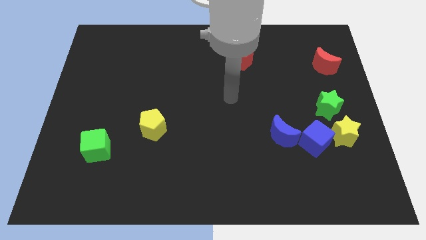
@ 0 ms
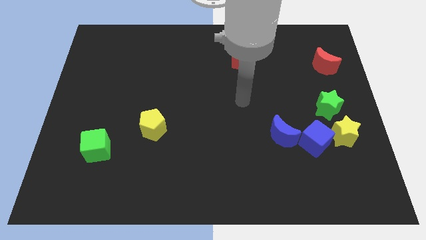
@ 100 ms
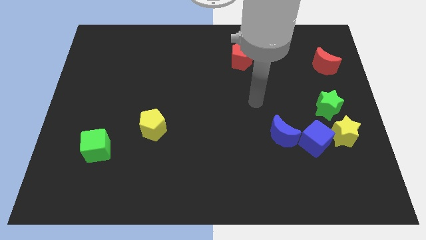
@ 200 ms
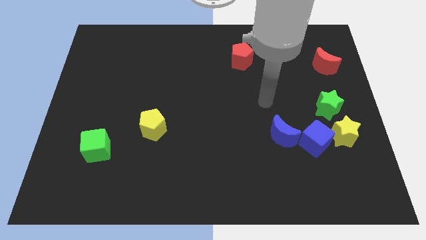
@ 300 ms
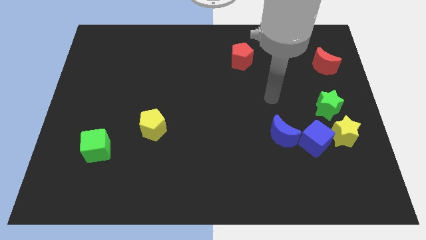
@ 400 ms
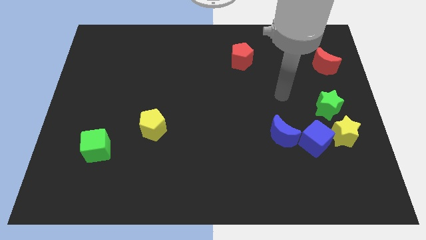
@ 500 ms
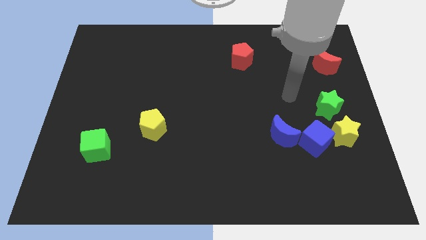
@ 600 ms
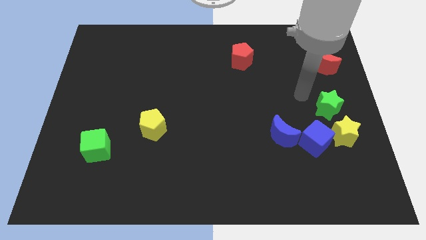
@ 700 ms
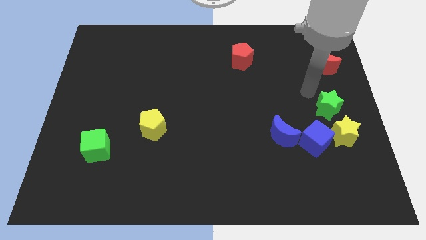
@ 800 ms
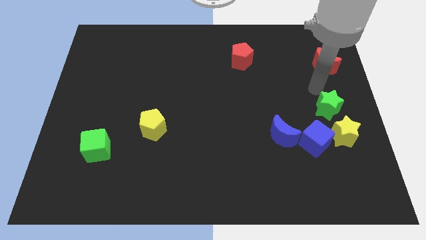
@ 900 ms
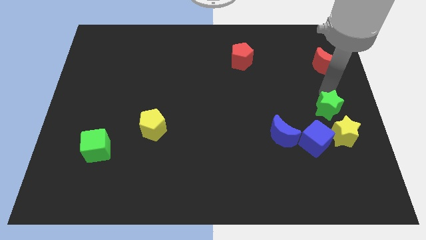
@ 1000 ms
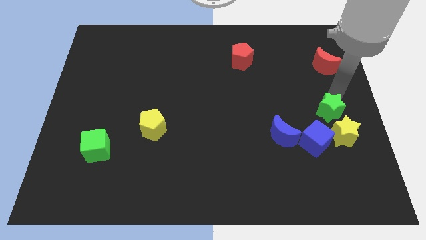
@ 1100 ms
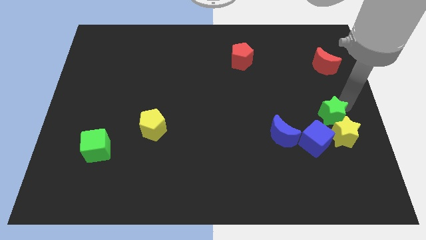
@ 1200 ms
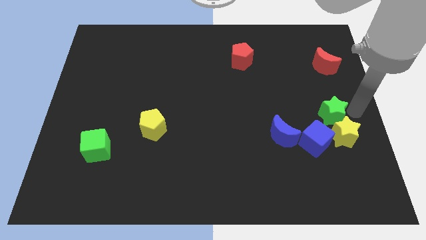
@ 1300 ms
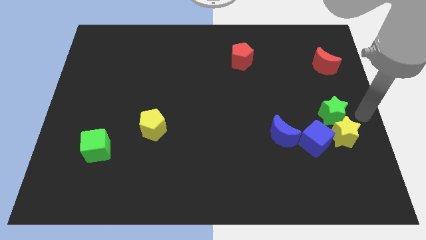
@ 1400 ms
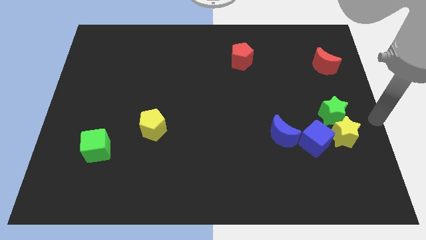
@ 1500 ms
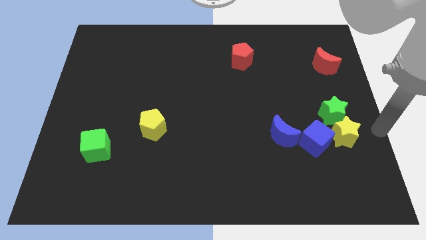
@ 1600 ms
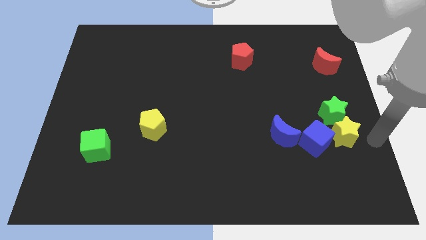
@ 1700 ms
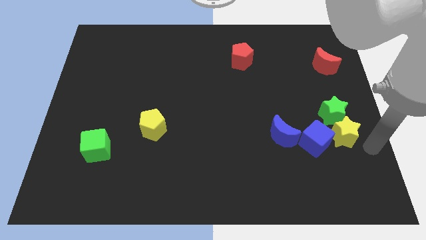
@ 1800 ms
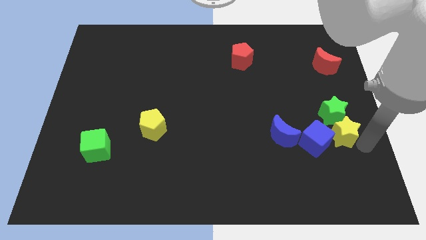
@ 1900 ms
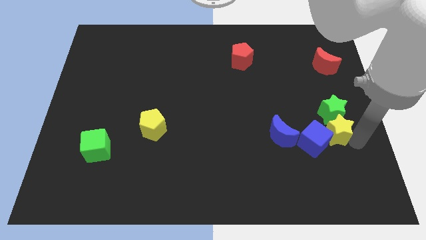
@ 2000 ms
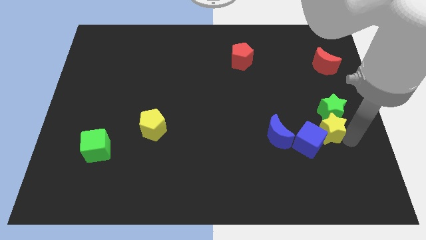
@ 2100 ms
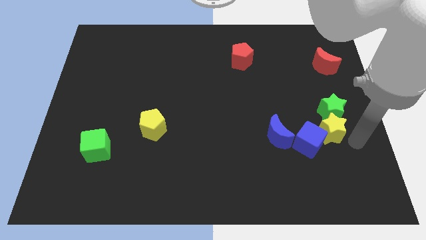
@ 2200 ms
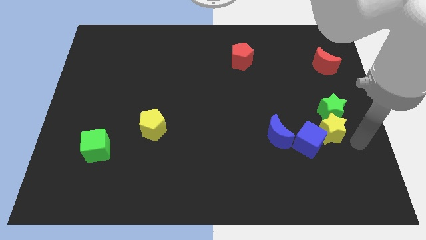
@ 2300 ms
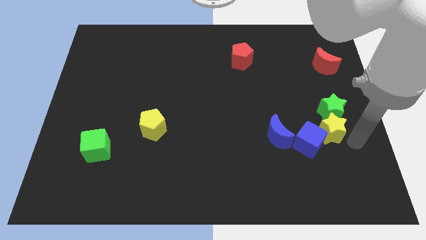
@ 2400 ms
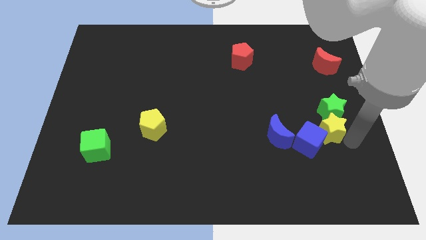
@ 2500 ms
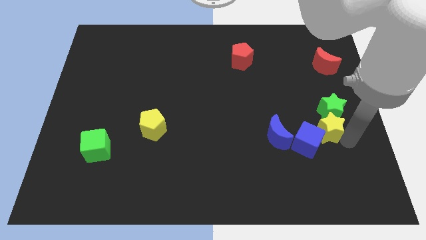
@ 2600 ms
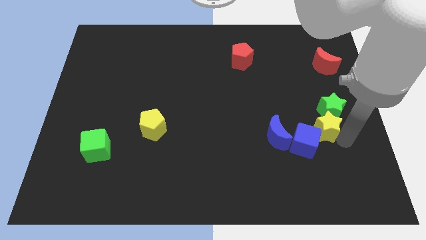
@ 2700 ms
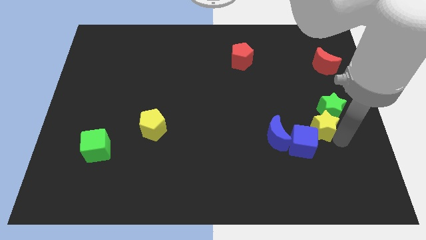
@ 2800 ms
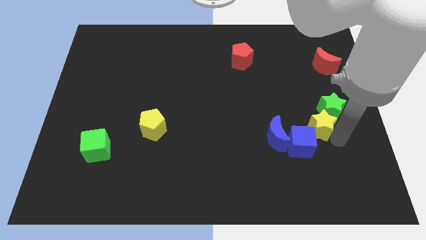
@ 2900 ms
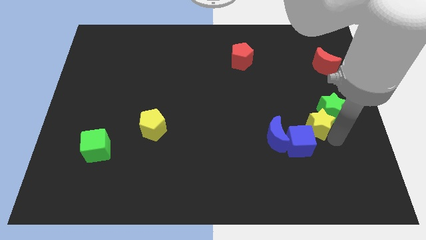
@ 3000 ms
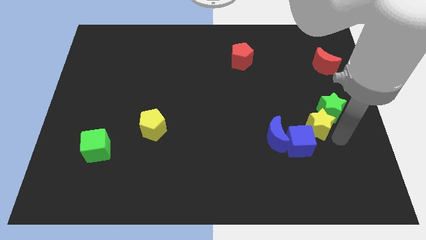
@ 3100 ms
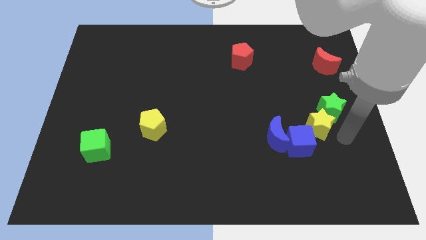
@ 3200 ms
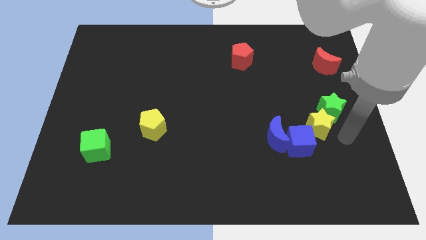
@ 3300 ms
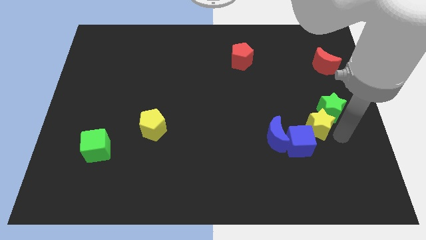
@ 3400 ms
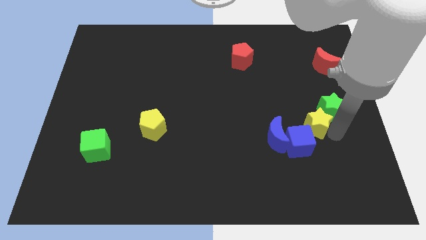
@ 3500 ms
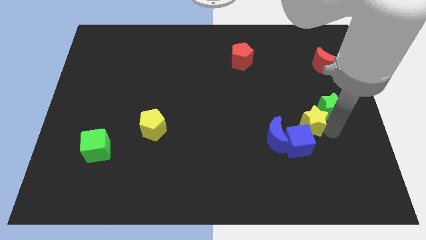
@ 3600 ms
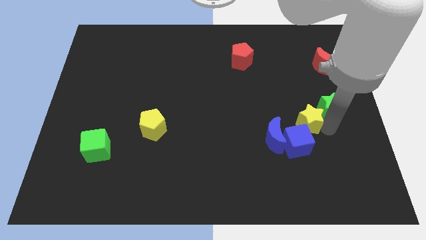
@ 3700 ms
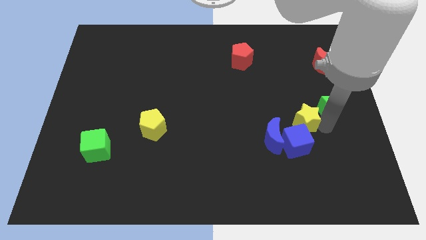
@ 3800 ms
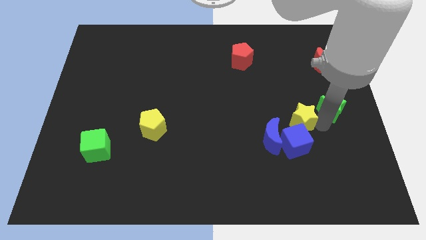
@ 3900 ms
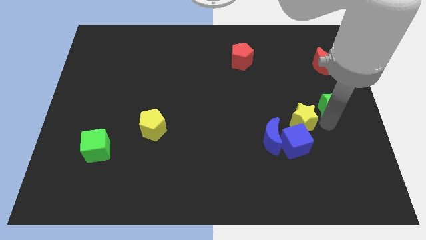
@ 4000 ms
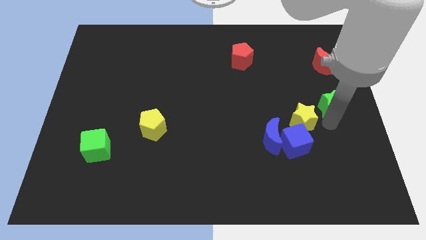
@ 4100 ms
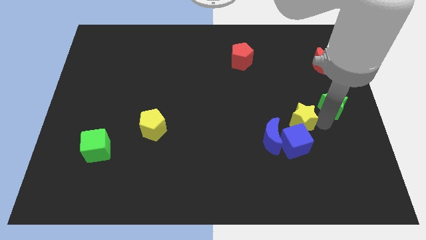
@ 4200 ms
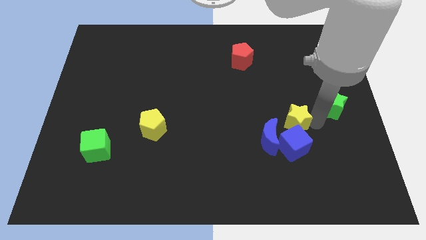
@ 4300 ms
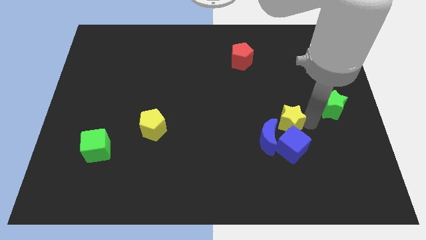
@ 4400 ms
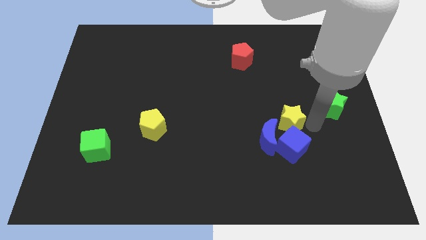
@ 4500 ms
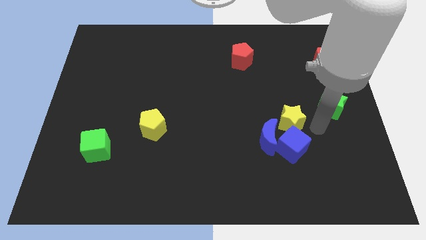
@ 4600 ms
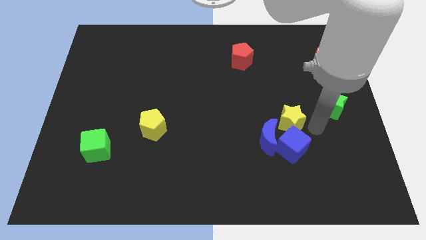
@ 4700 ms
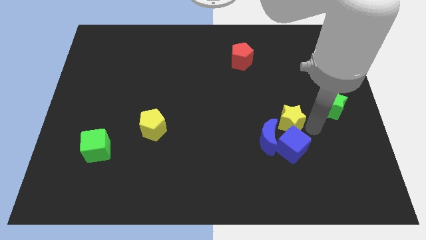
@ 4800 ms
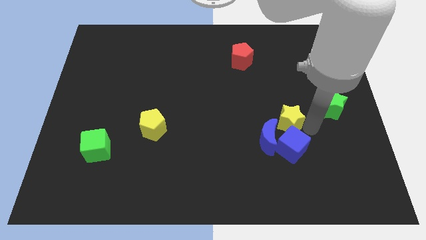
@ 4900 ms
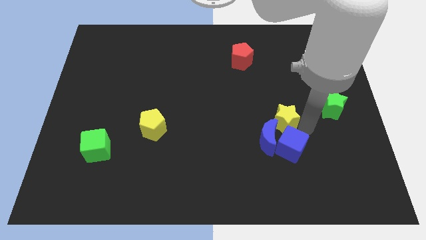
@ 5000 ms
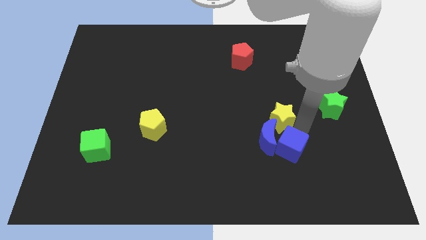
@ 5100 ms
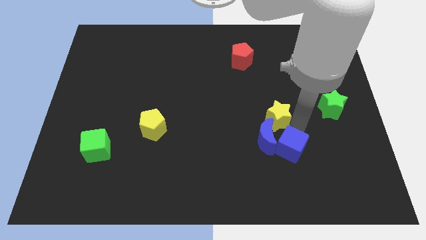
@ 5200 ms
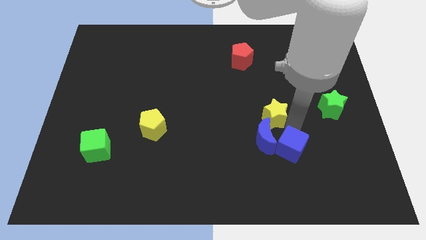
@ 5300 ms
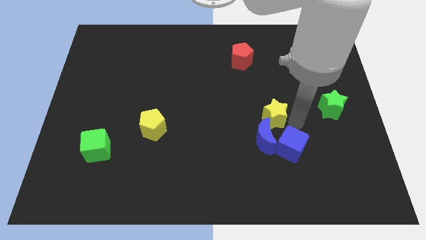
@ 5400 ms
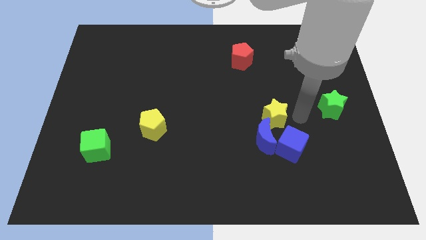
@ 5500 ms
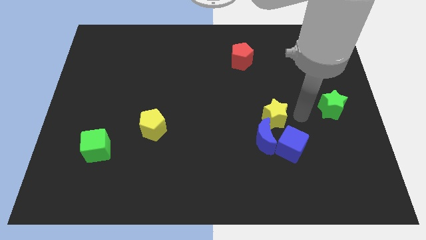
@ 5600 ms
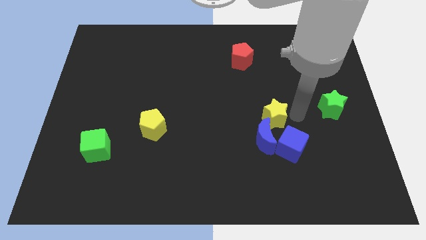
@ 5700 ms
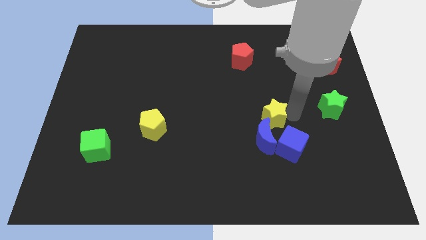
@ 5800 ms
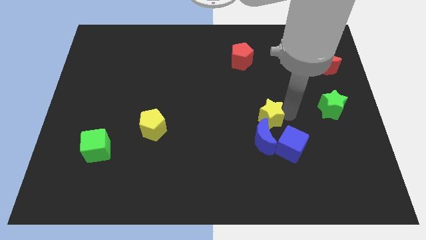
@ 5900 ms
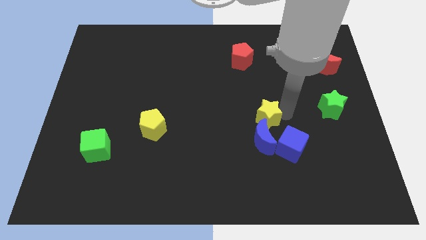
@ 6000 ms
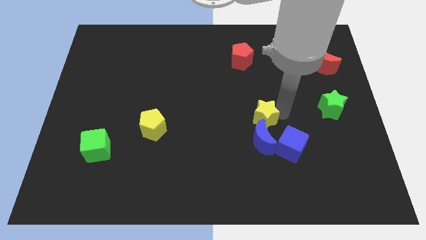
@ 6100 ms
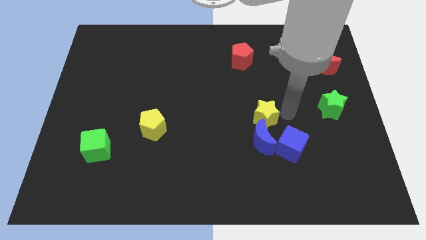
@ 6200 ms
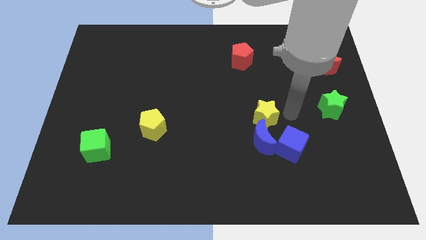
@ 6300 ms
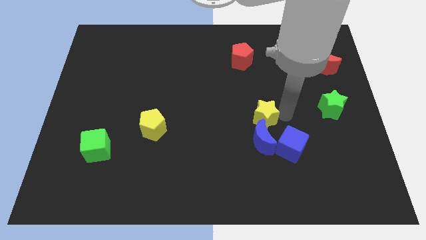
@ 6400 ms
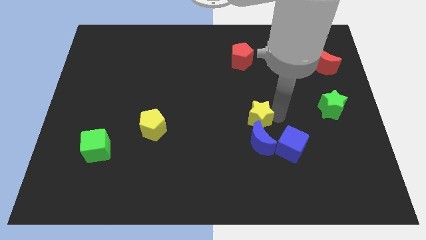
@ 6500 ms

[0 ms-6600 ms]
move the yellow star to the top left of the blue moon
